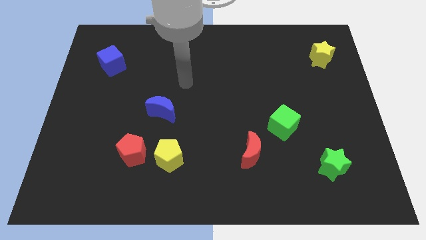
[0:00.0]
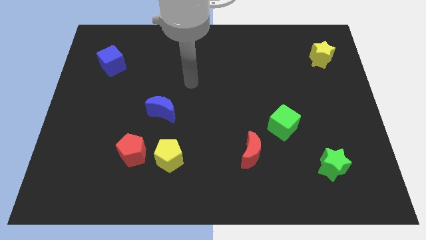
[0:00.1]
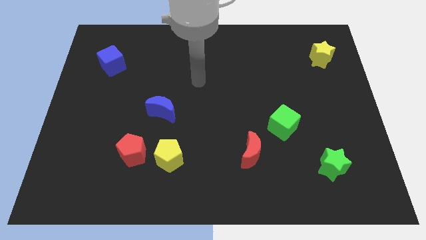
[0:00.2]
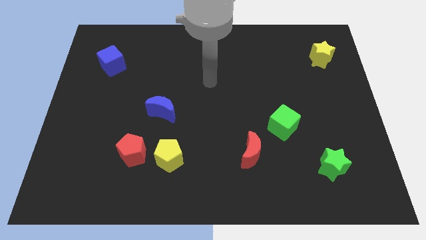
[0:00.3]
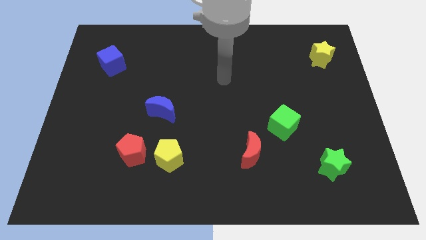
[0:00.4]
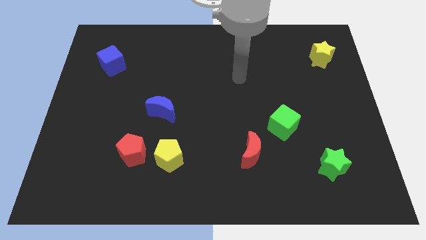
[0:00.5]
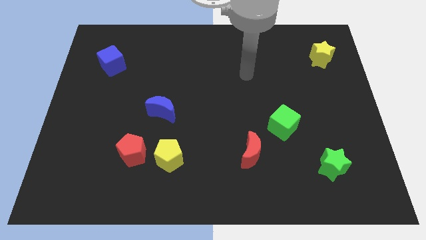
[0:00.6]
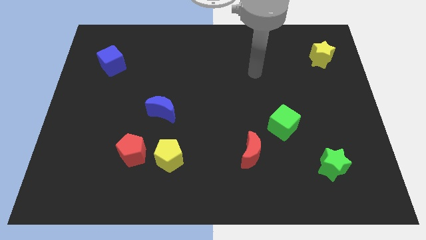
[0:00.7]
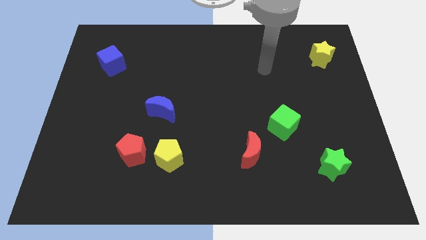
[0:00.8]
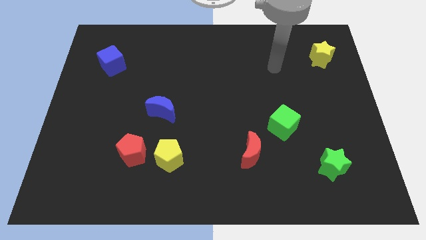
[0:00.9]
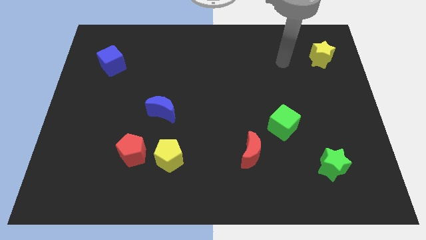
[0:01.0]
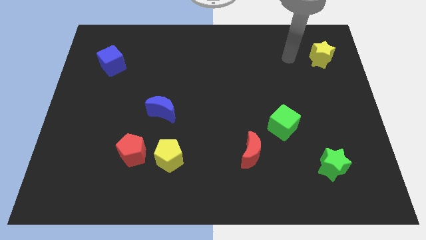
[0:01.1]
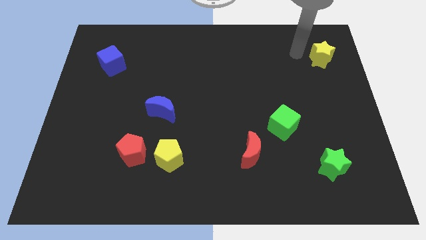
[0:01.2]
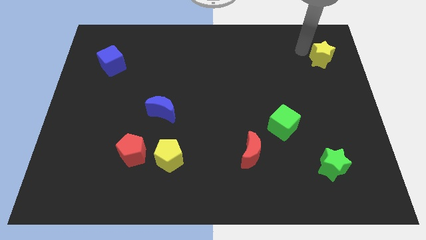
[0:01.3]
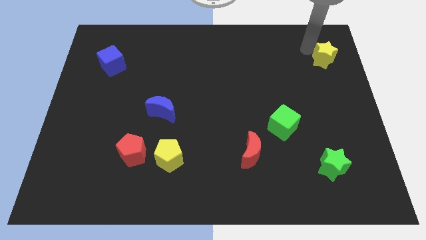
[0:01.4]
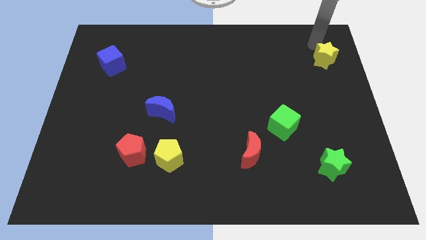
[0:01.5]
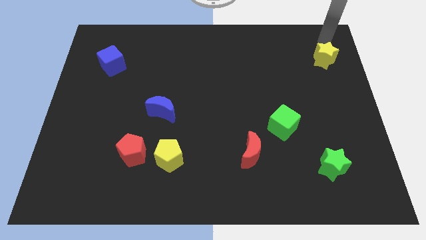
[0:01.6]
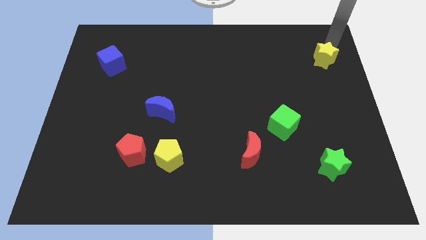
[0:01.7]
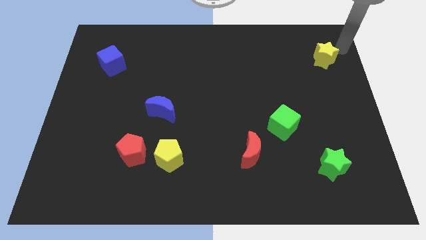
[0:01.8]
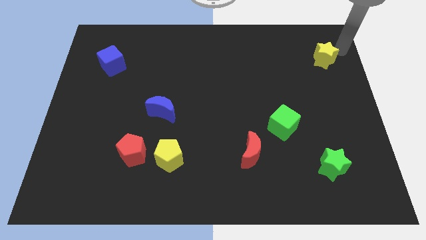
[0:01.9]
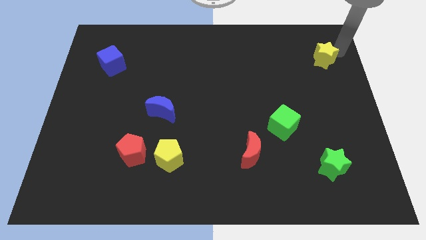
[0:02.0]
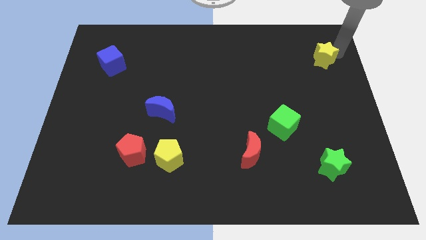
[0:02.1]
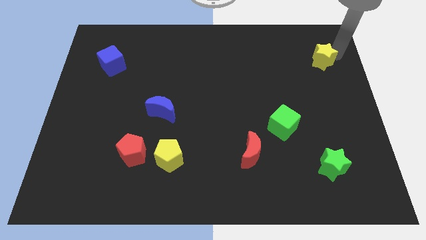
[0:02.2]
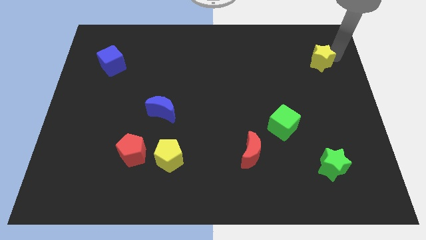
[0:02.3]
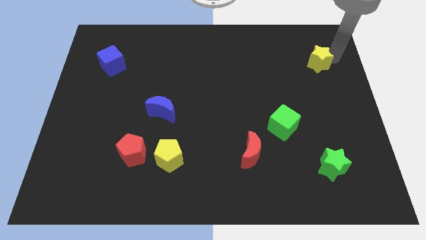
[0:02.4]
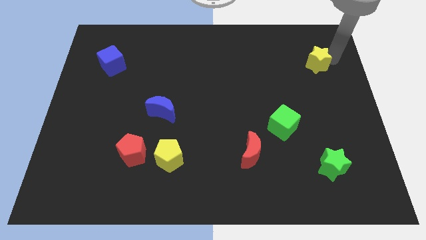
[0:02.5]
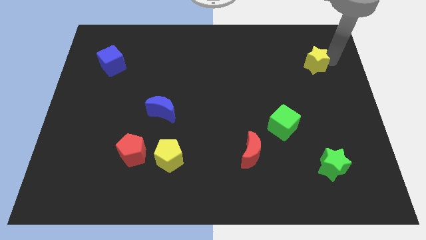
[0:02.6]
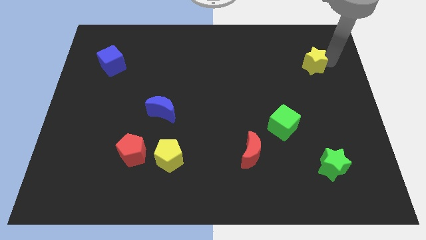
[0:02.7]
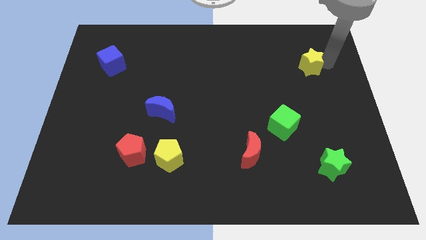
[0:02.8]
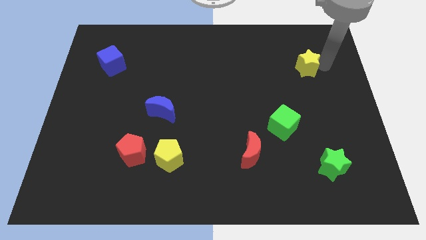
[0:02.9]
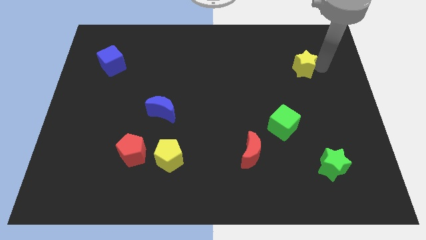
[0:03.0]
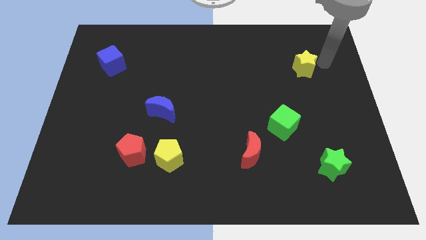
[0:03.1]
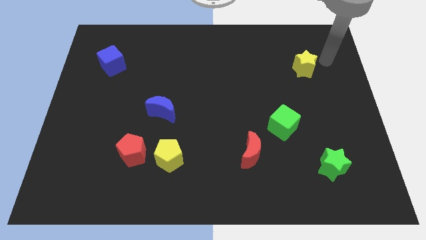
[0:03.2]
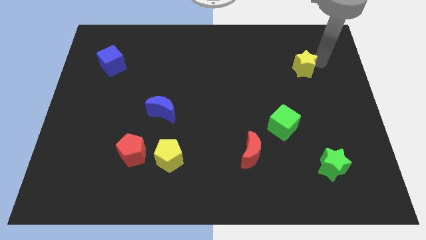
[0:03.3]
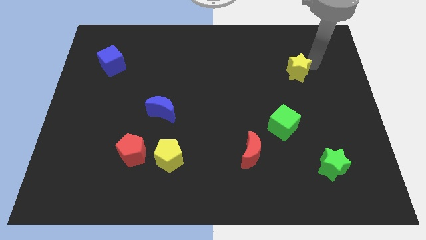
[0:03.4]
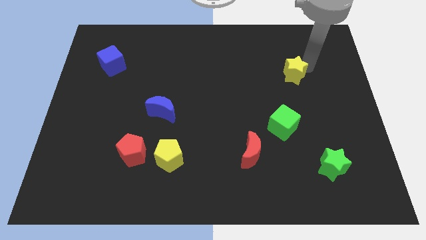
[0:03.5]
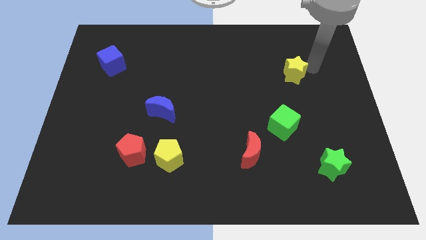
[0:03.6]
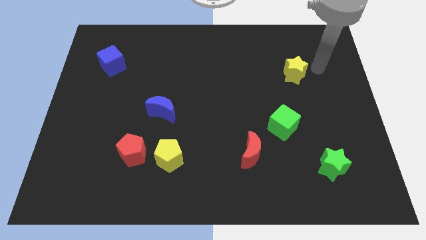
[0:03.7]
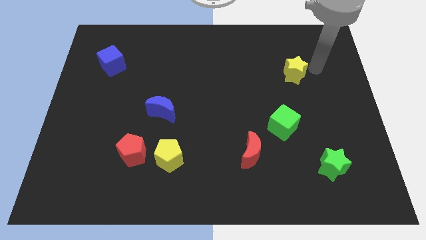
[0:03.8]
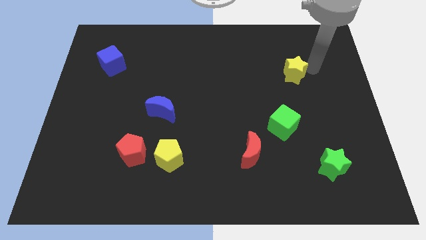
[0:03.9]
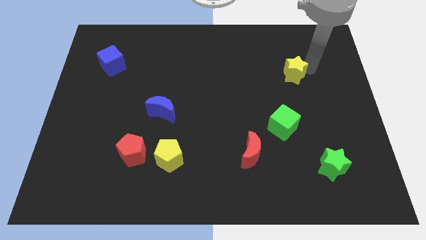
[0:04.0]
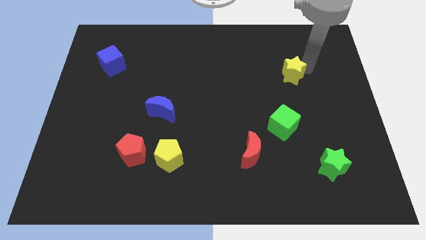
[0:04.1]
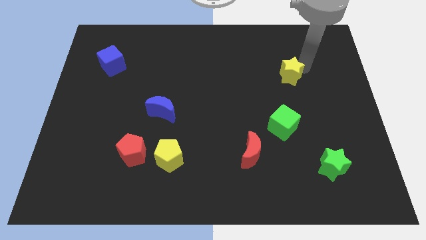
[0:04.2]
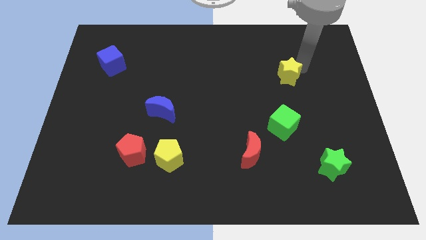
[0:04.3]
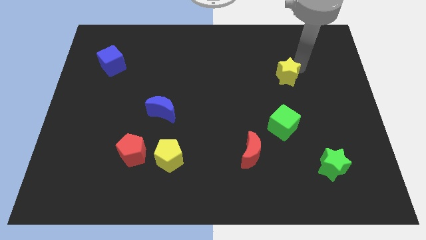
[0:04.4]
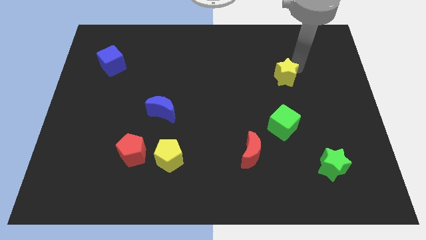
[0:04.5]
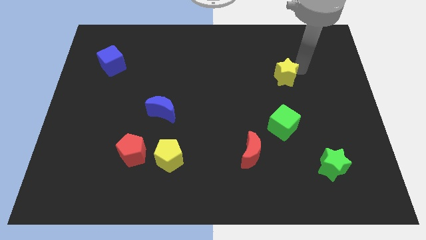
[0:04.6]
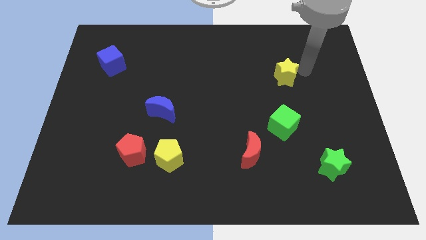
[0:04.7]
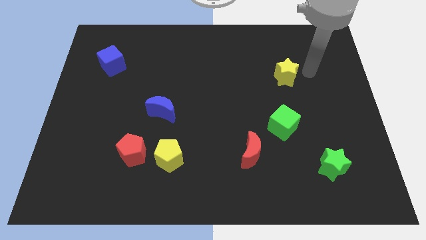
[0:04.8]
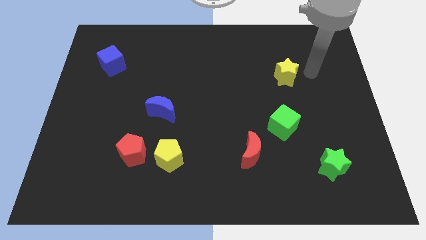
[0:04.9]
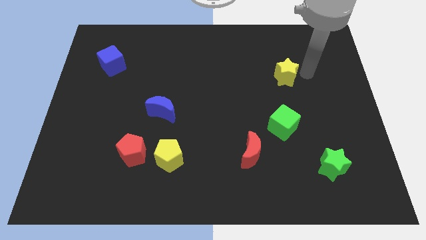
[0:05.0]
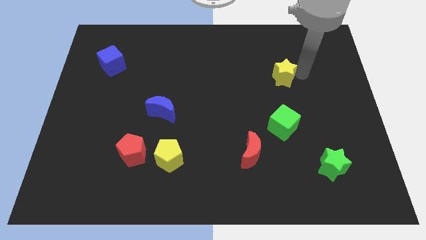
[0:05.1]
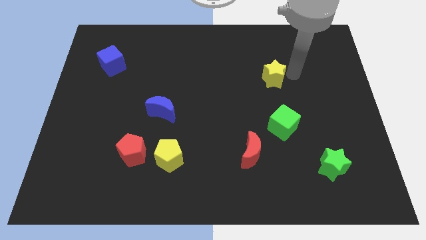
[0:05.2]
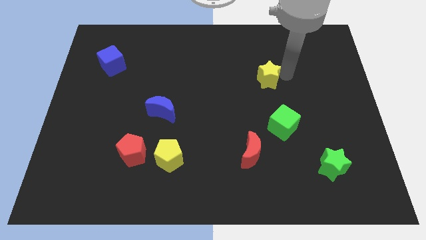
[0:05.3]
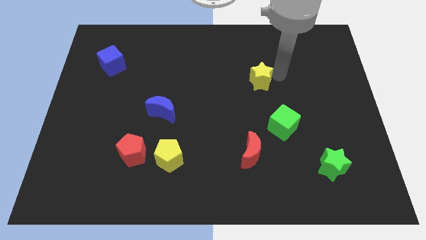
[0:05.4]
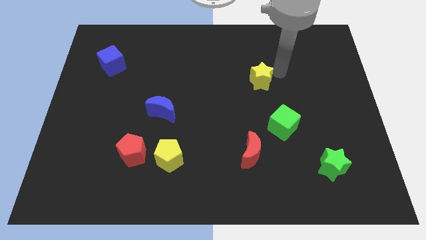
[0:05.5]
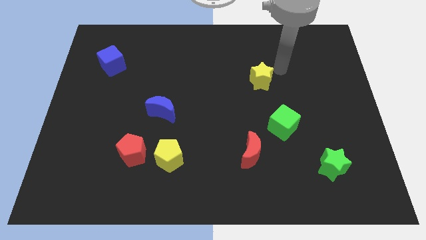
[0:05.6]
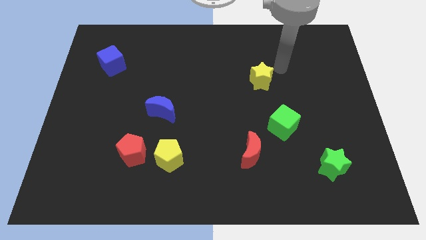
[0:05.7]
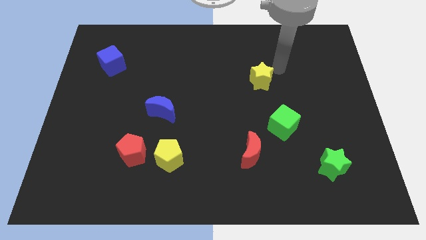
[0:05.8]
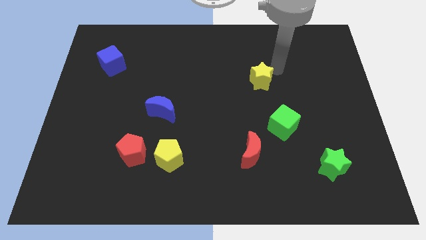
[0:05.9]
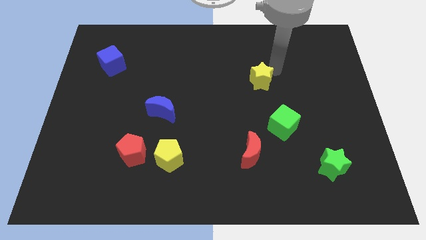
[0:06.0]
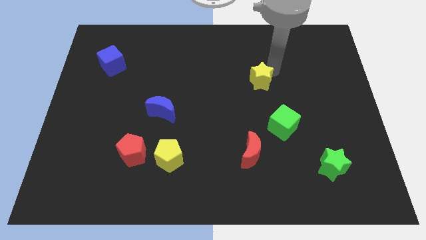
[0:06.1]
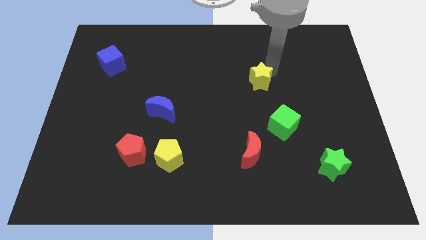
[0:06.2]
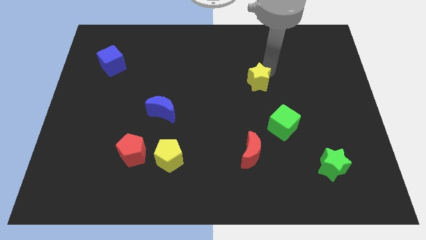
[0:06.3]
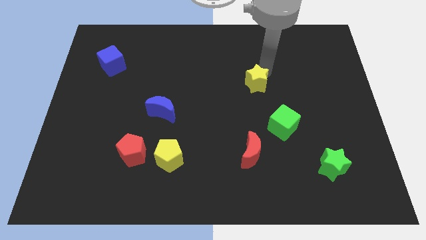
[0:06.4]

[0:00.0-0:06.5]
put the yellow star to the center of the board
